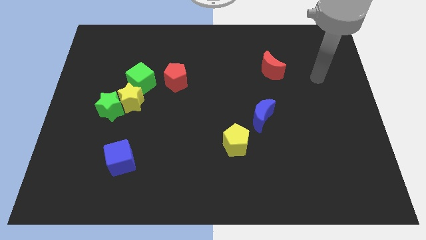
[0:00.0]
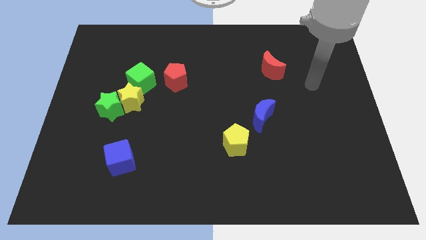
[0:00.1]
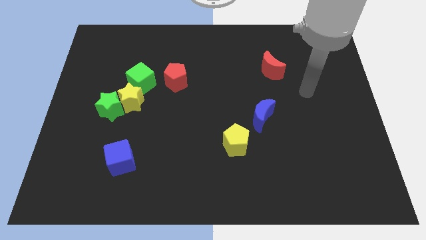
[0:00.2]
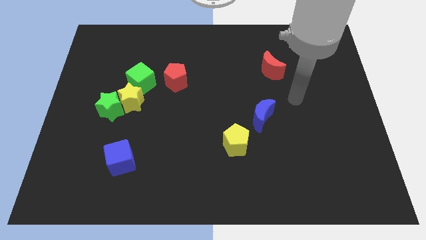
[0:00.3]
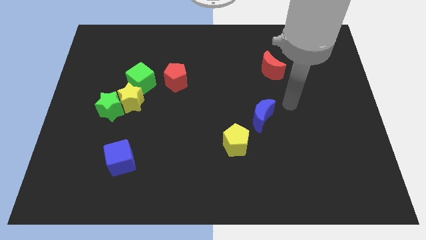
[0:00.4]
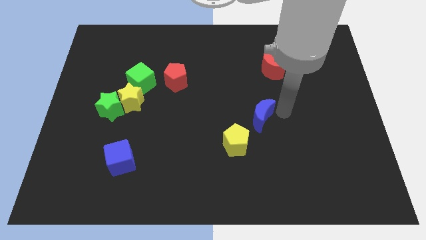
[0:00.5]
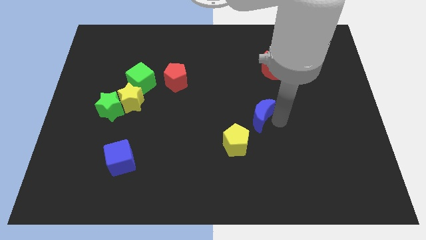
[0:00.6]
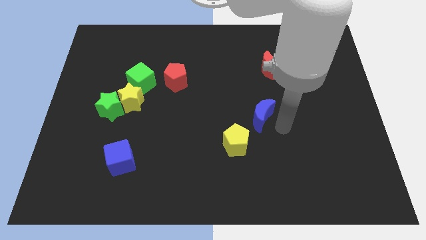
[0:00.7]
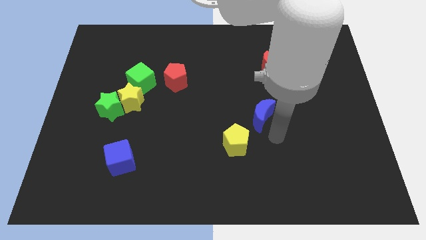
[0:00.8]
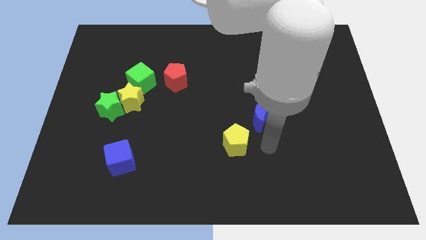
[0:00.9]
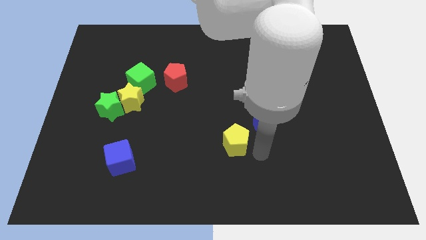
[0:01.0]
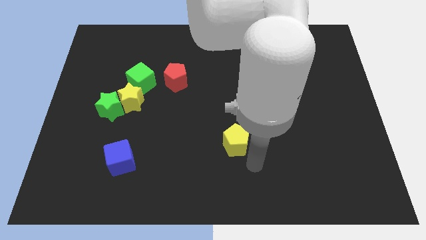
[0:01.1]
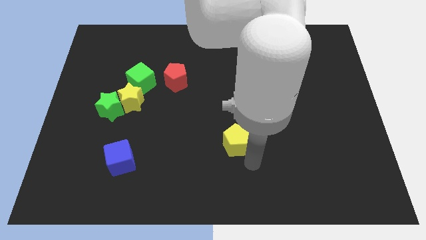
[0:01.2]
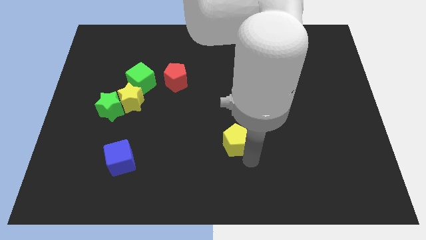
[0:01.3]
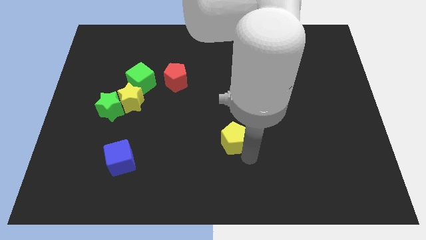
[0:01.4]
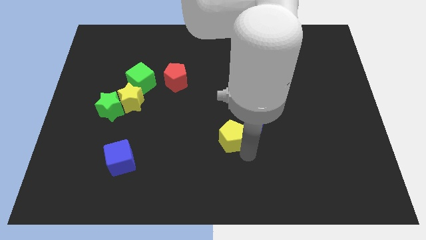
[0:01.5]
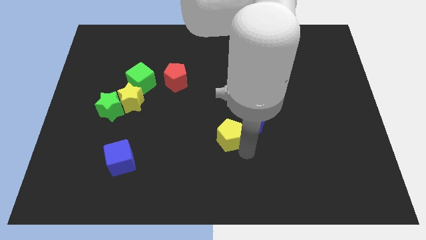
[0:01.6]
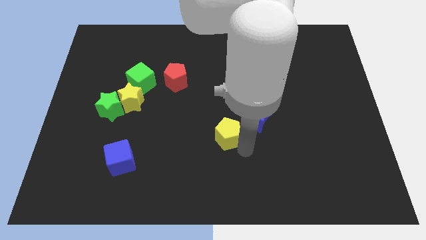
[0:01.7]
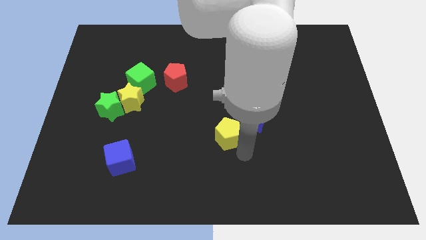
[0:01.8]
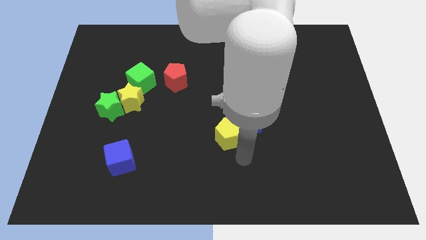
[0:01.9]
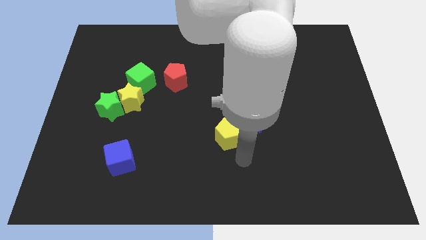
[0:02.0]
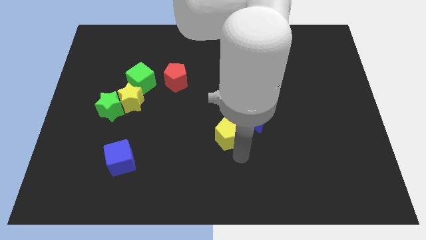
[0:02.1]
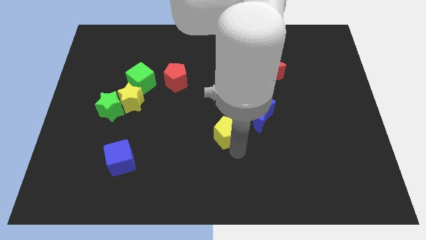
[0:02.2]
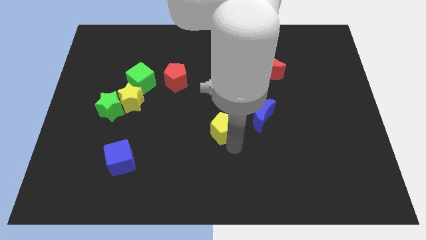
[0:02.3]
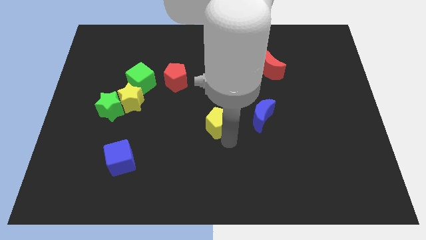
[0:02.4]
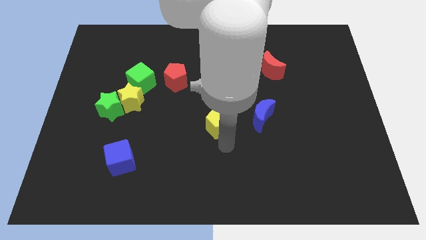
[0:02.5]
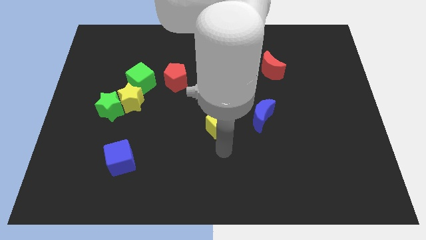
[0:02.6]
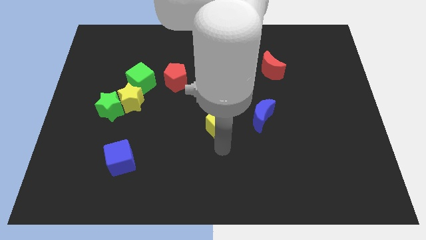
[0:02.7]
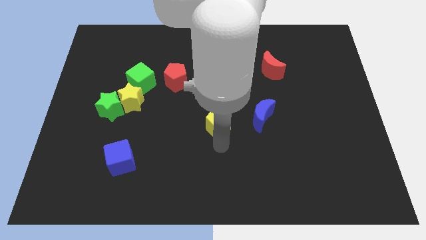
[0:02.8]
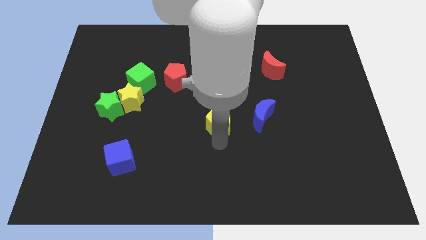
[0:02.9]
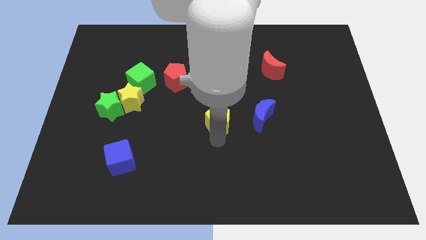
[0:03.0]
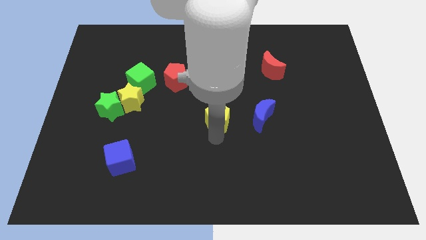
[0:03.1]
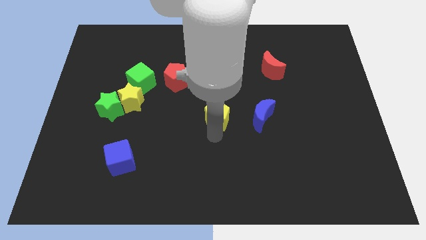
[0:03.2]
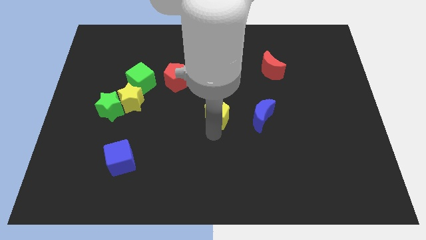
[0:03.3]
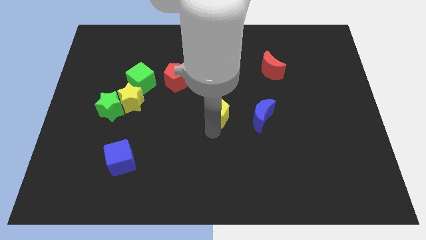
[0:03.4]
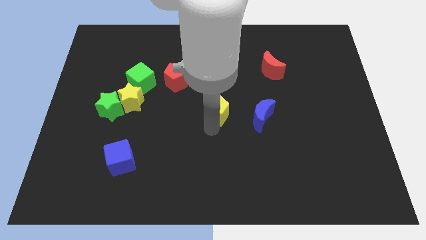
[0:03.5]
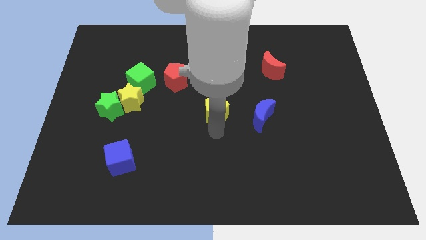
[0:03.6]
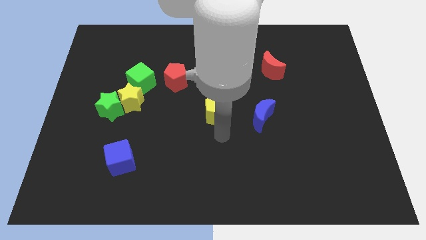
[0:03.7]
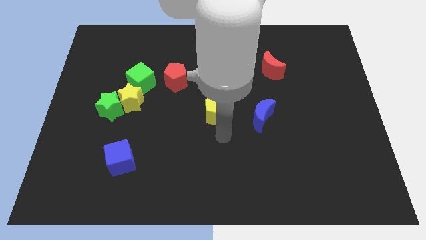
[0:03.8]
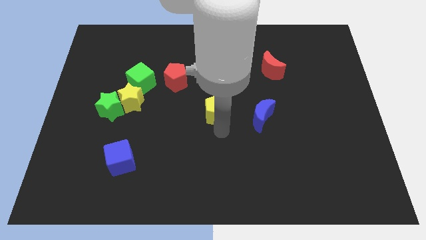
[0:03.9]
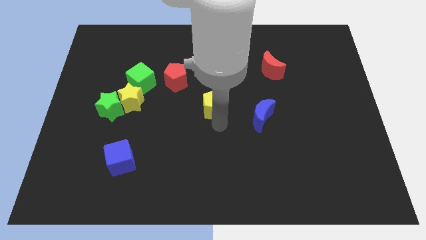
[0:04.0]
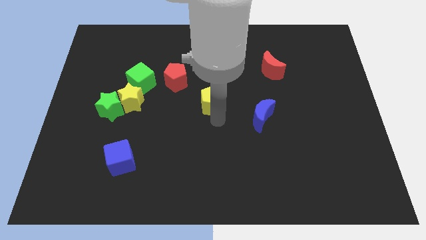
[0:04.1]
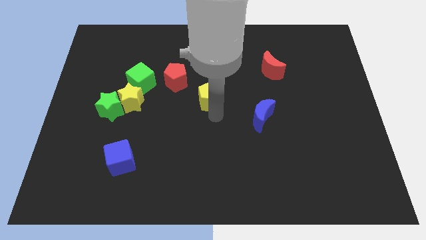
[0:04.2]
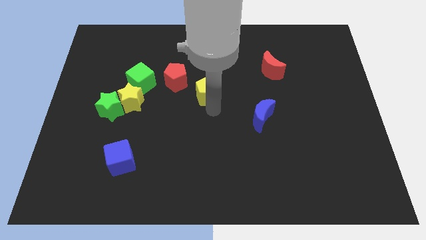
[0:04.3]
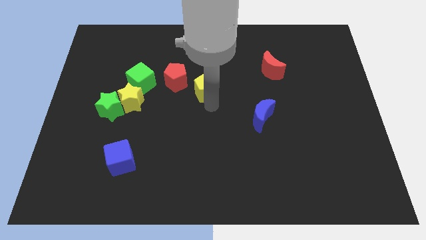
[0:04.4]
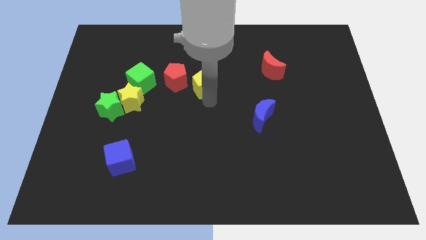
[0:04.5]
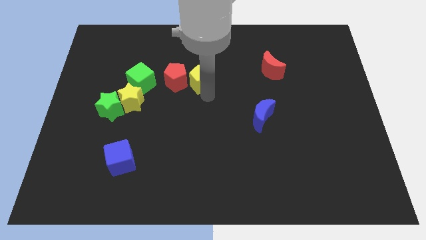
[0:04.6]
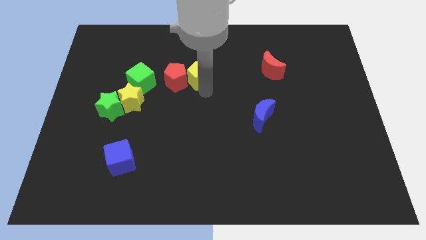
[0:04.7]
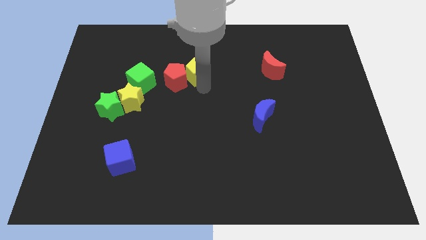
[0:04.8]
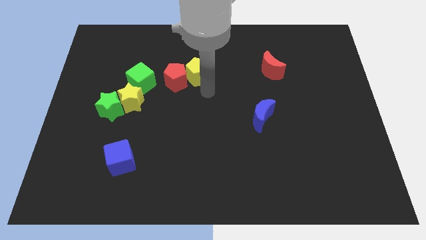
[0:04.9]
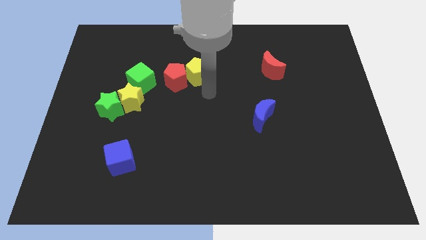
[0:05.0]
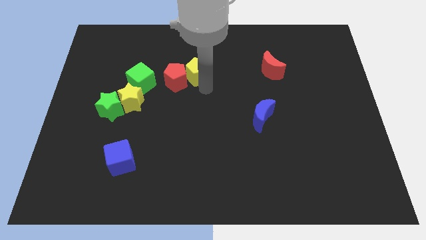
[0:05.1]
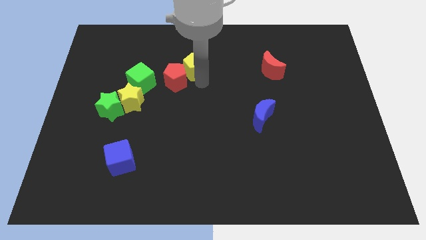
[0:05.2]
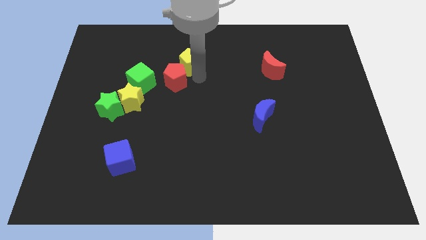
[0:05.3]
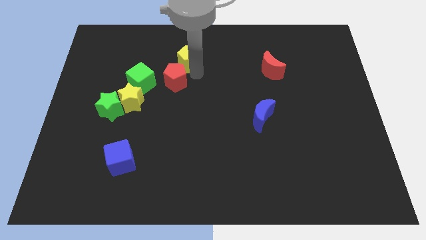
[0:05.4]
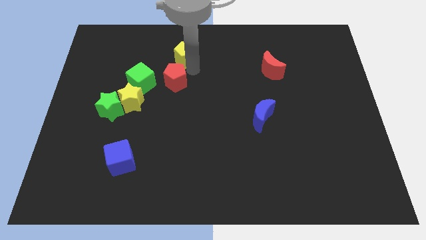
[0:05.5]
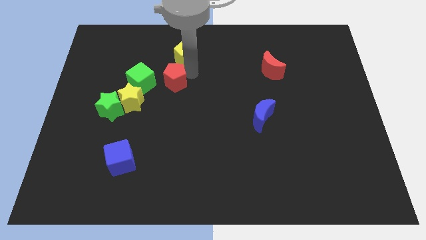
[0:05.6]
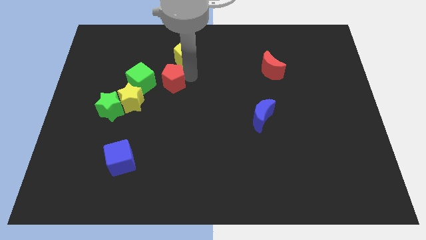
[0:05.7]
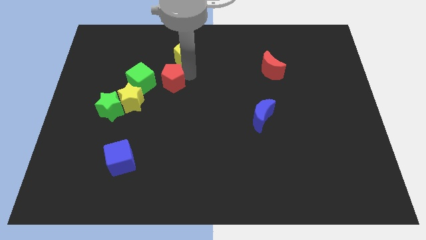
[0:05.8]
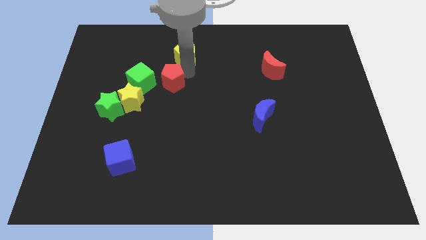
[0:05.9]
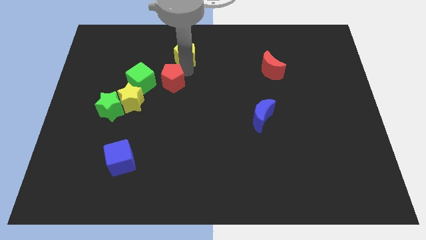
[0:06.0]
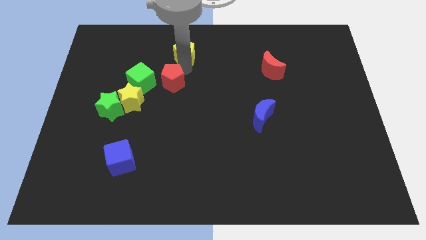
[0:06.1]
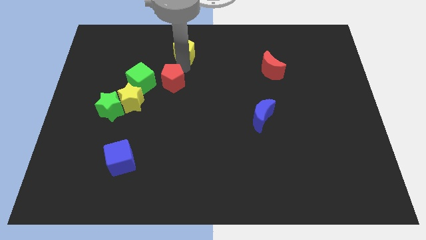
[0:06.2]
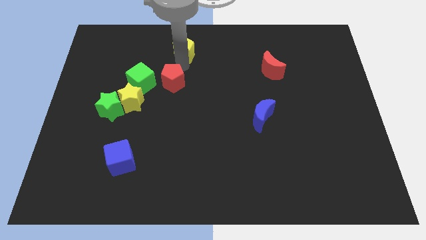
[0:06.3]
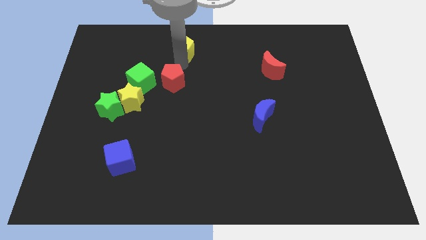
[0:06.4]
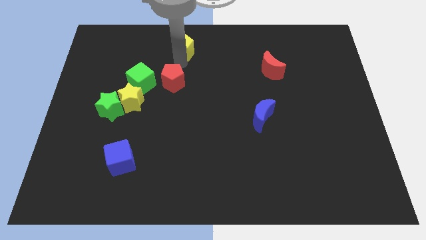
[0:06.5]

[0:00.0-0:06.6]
slide the yellow pentagon to the top side
